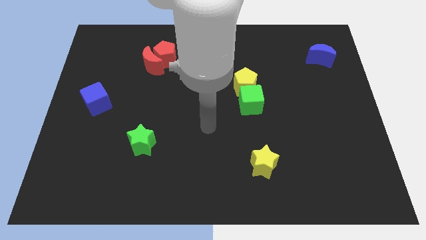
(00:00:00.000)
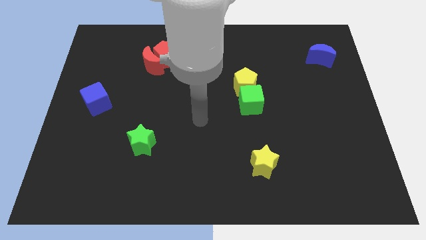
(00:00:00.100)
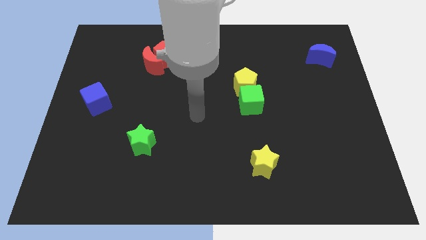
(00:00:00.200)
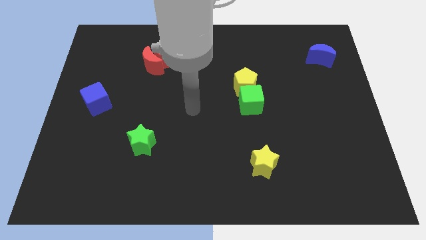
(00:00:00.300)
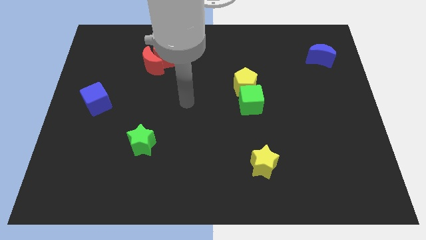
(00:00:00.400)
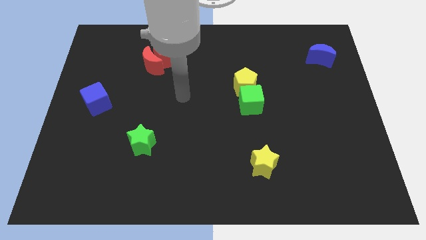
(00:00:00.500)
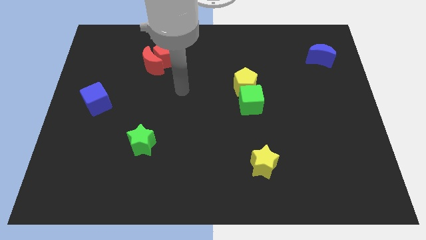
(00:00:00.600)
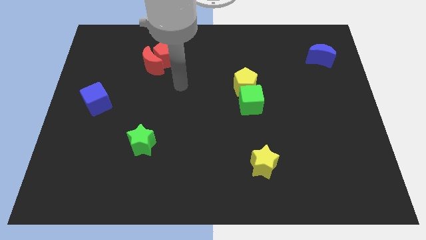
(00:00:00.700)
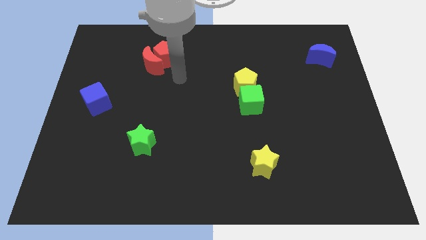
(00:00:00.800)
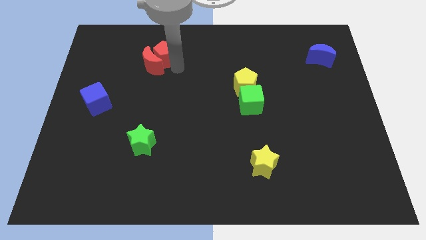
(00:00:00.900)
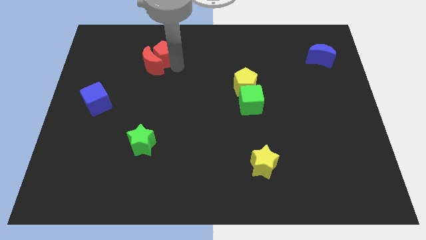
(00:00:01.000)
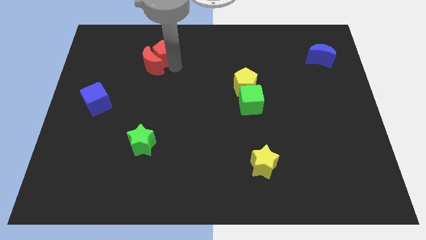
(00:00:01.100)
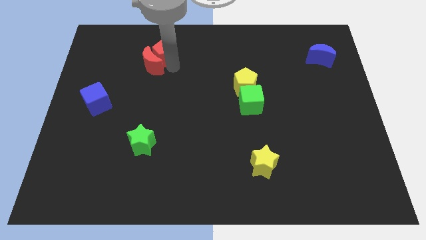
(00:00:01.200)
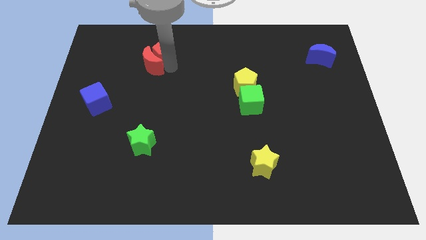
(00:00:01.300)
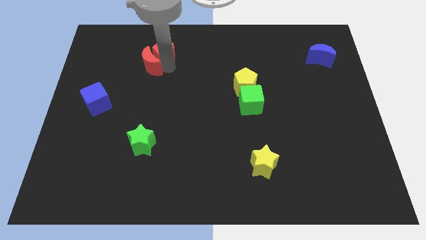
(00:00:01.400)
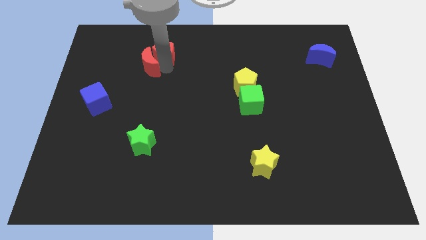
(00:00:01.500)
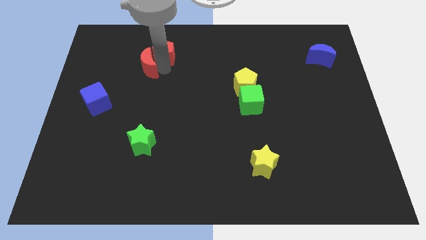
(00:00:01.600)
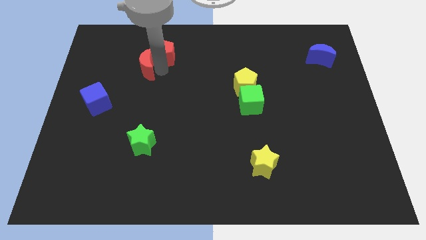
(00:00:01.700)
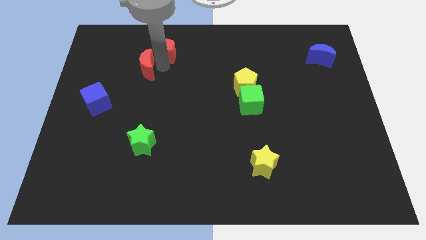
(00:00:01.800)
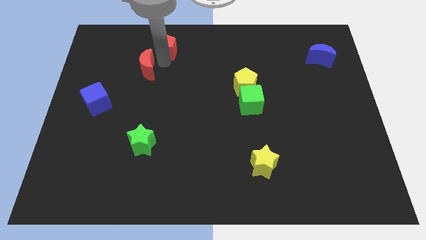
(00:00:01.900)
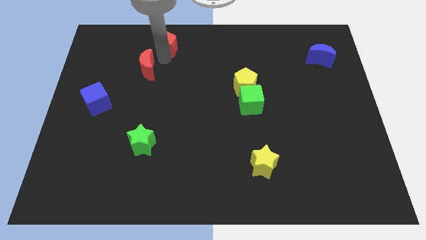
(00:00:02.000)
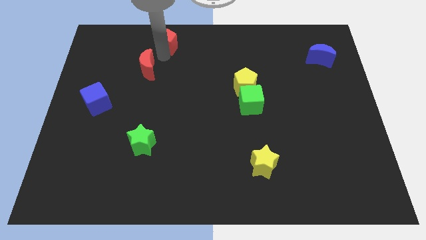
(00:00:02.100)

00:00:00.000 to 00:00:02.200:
pull the red moon apart from the red pentagon

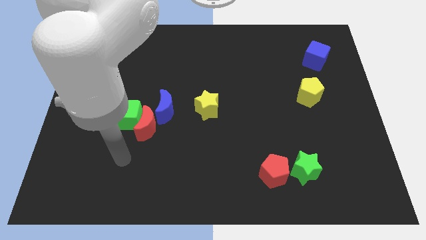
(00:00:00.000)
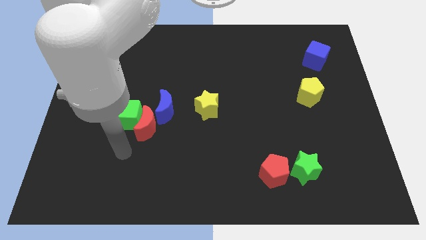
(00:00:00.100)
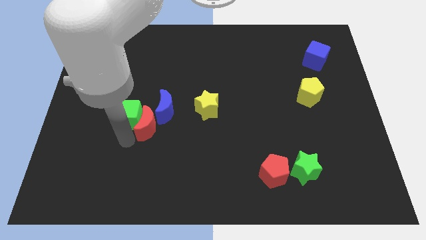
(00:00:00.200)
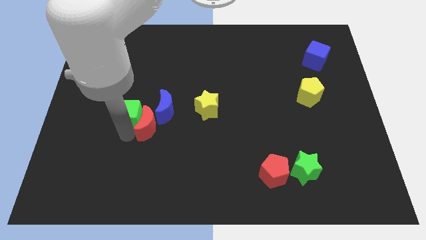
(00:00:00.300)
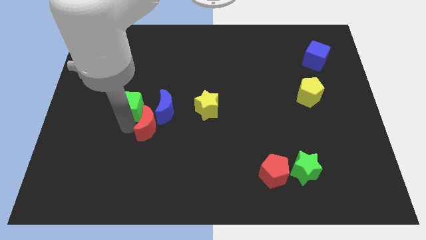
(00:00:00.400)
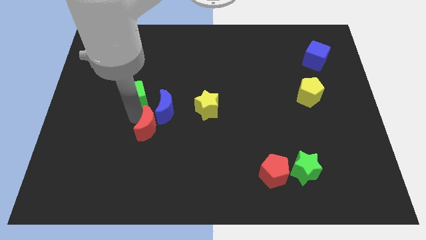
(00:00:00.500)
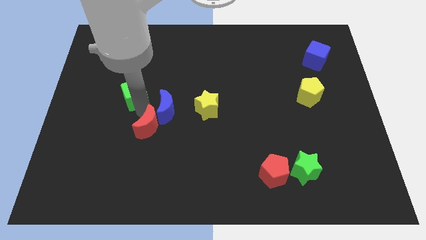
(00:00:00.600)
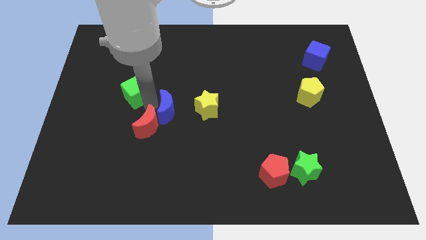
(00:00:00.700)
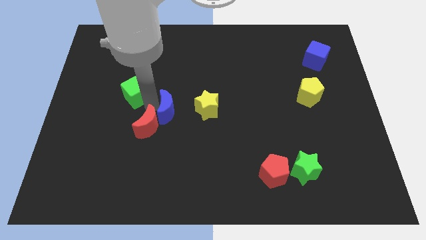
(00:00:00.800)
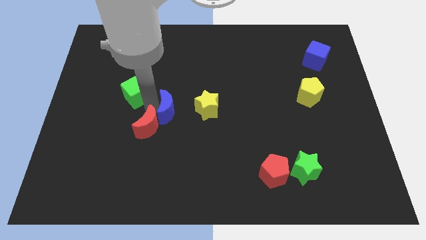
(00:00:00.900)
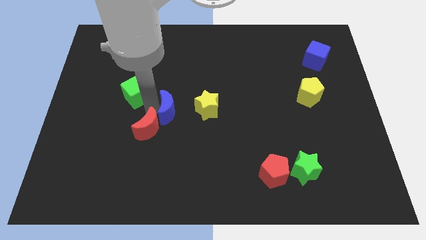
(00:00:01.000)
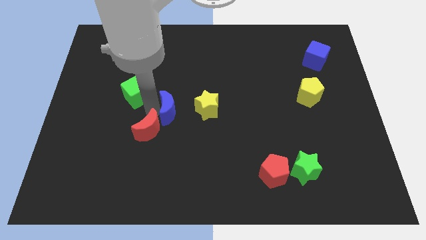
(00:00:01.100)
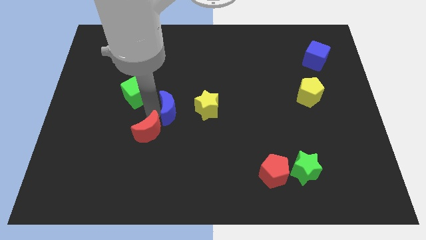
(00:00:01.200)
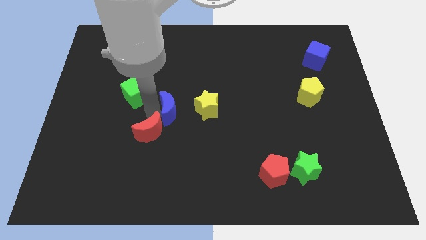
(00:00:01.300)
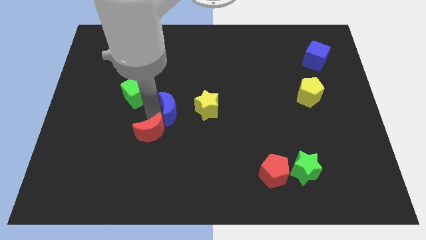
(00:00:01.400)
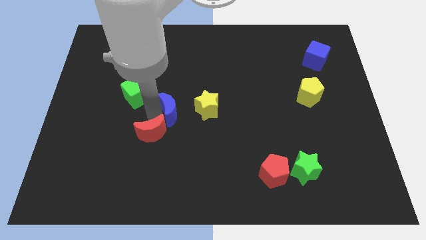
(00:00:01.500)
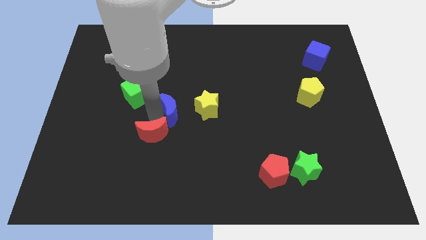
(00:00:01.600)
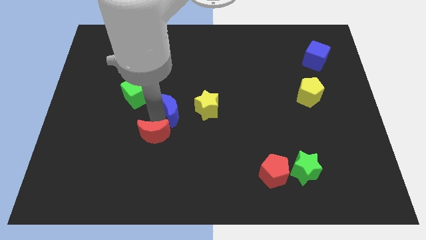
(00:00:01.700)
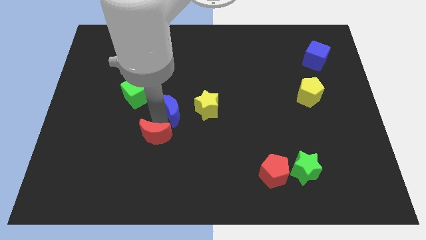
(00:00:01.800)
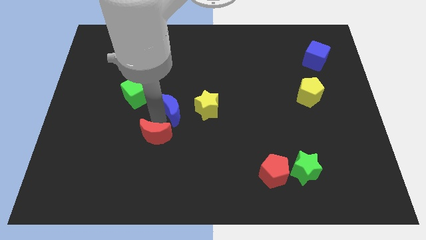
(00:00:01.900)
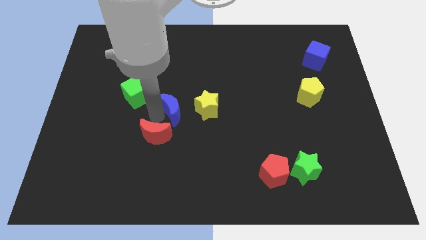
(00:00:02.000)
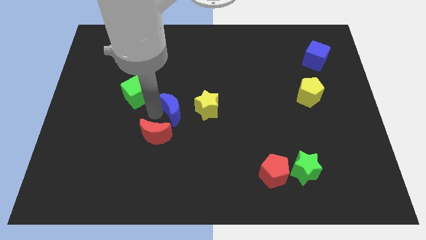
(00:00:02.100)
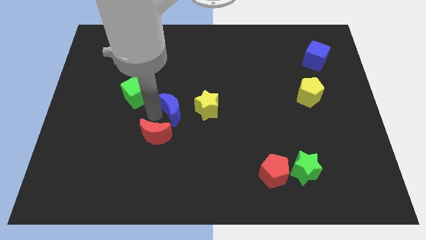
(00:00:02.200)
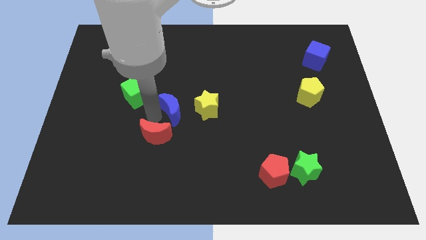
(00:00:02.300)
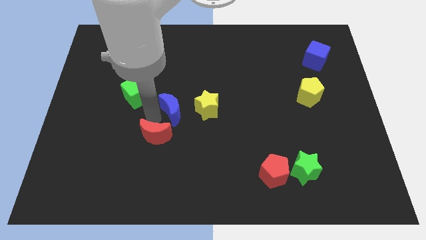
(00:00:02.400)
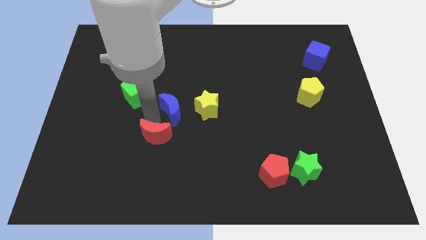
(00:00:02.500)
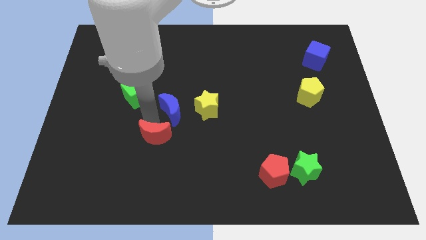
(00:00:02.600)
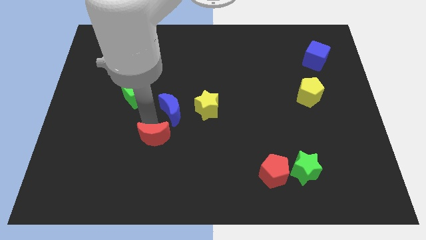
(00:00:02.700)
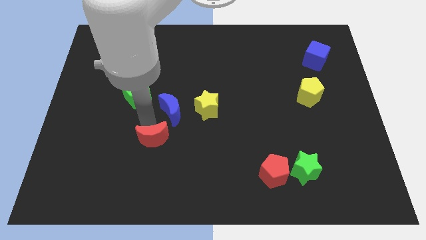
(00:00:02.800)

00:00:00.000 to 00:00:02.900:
pull the red moon apart from the green cube and blue moon

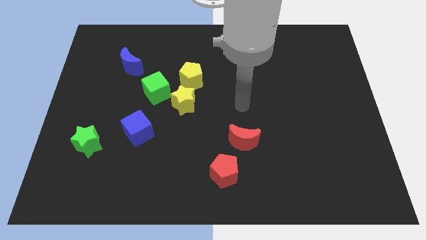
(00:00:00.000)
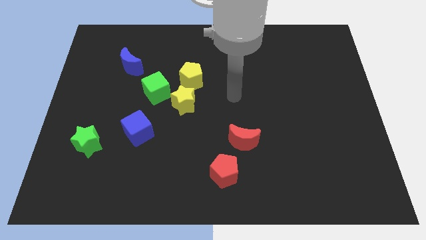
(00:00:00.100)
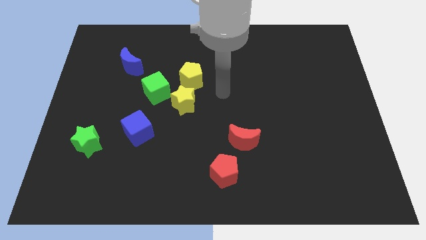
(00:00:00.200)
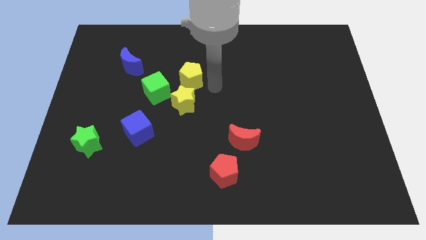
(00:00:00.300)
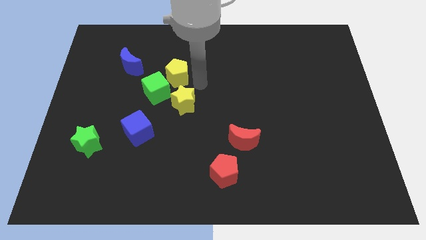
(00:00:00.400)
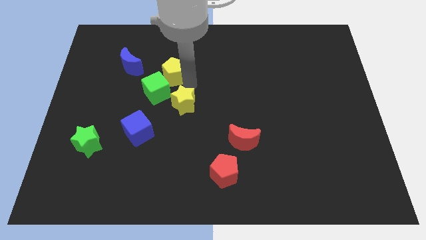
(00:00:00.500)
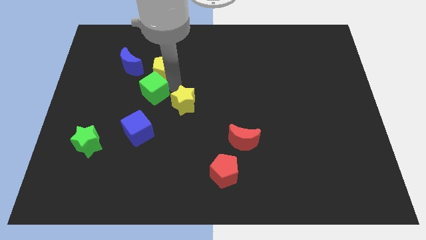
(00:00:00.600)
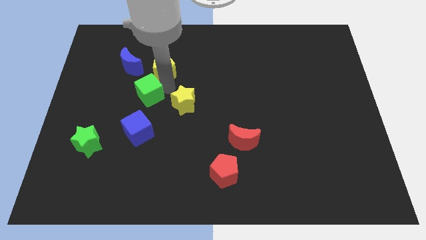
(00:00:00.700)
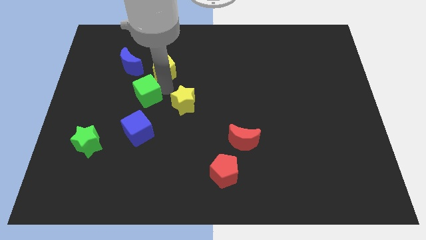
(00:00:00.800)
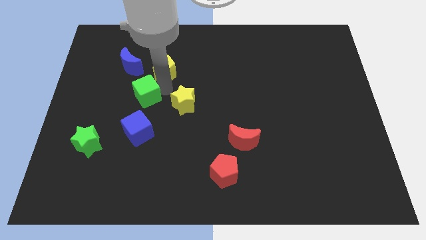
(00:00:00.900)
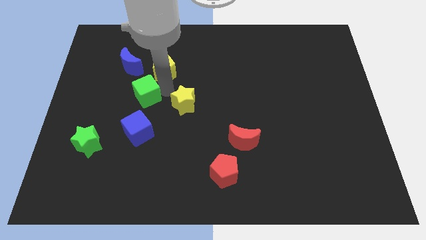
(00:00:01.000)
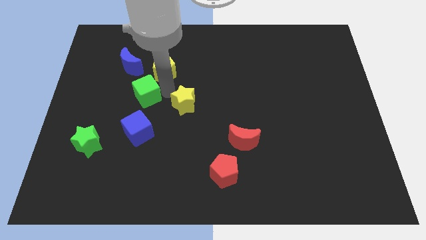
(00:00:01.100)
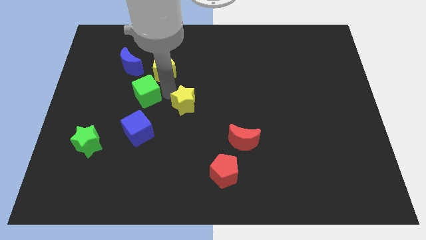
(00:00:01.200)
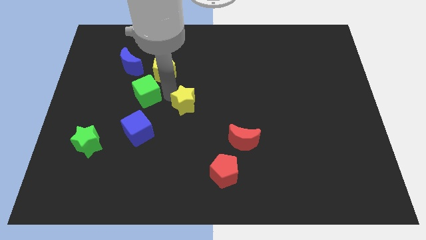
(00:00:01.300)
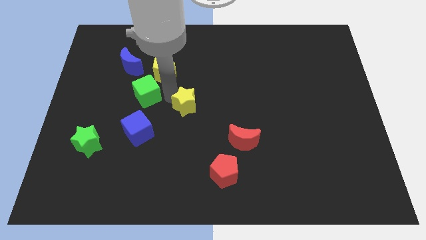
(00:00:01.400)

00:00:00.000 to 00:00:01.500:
pull the yellow star apart from the yellow pentagon and green cube

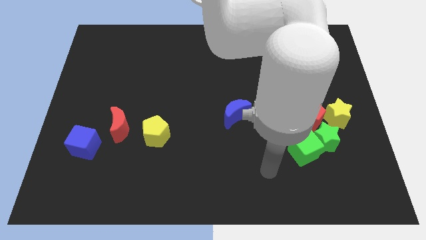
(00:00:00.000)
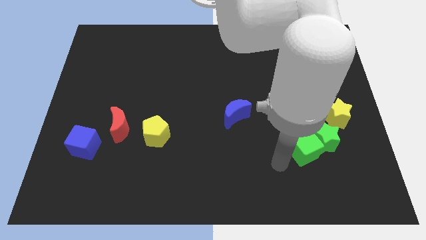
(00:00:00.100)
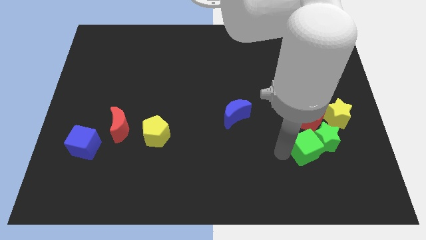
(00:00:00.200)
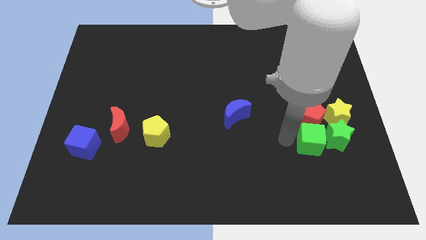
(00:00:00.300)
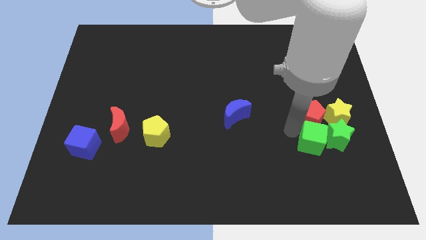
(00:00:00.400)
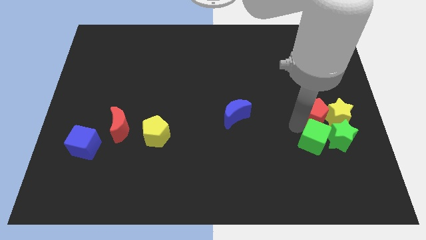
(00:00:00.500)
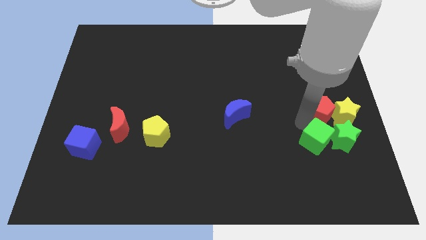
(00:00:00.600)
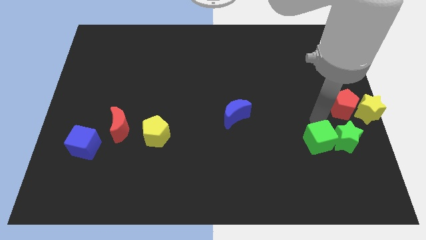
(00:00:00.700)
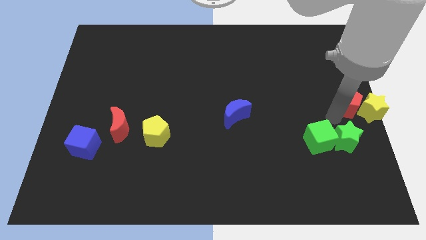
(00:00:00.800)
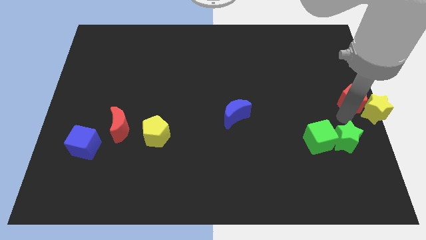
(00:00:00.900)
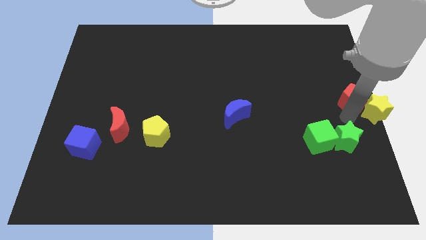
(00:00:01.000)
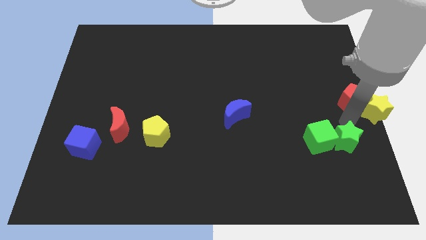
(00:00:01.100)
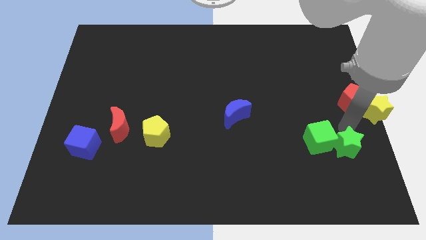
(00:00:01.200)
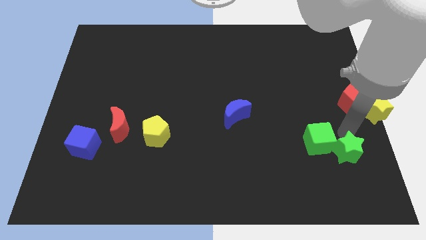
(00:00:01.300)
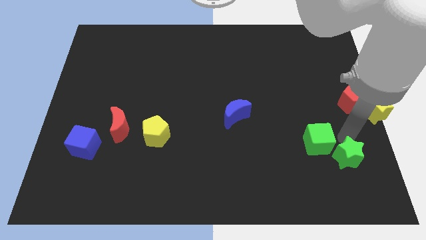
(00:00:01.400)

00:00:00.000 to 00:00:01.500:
move the green star away from the green cube, red pentagon, and yellow star

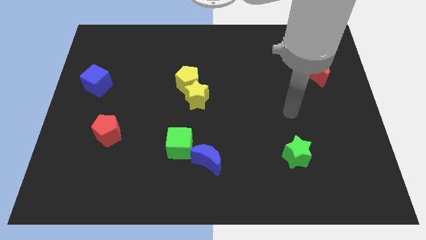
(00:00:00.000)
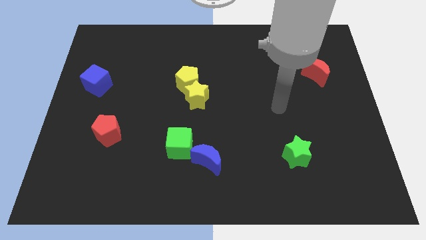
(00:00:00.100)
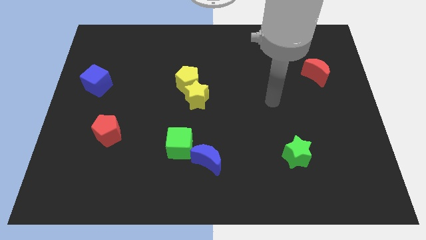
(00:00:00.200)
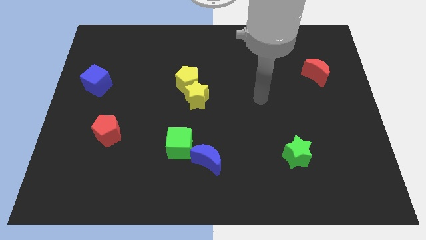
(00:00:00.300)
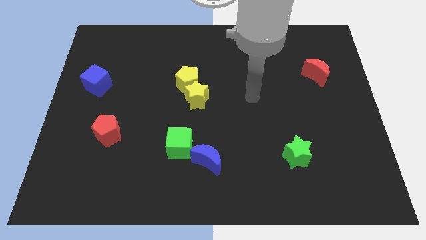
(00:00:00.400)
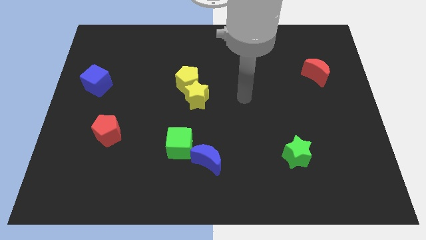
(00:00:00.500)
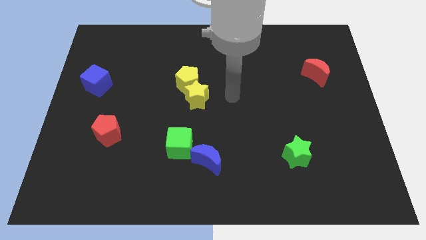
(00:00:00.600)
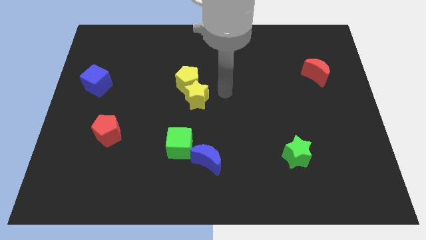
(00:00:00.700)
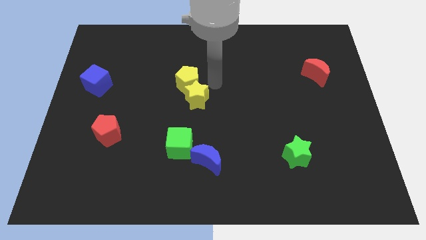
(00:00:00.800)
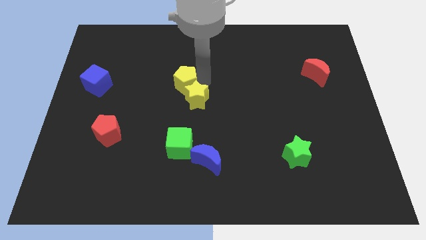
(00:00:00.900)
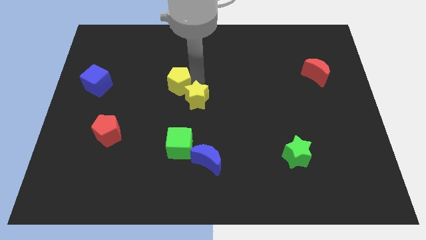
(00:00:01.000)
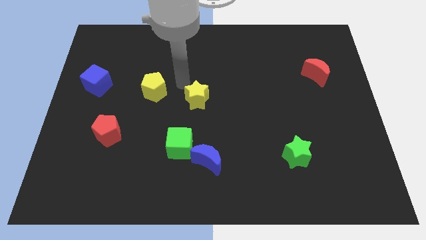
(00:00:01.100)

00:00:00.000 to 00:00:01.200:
separate the yellow star from the yellow pentagon
